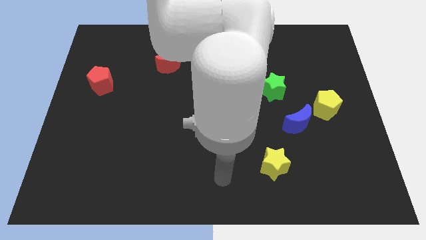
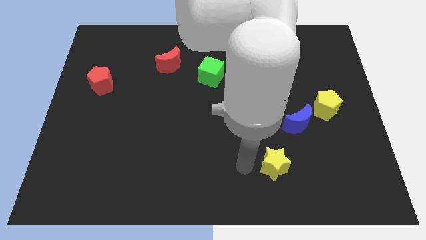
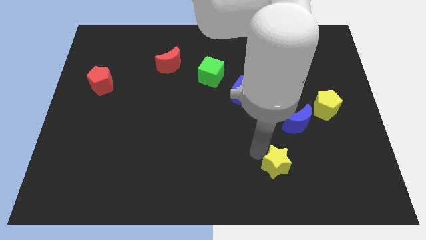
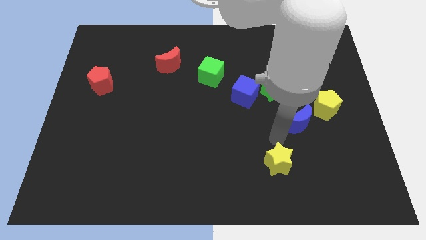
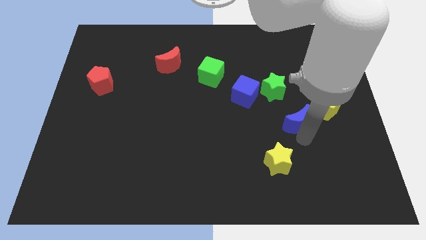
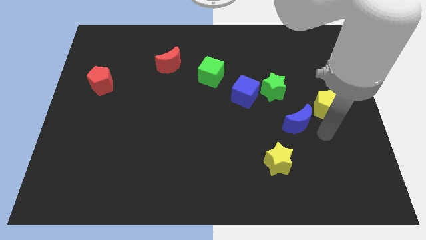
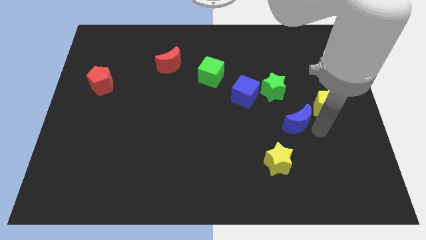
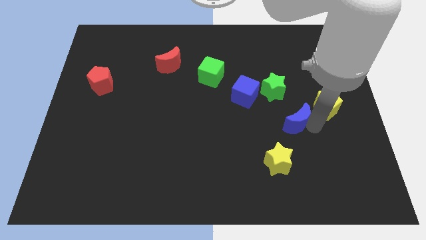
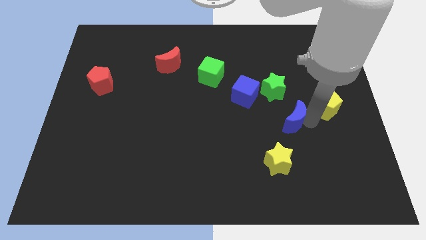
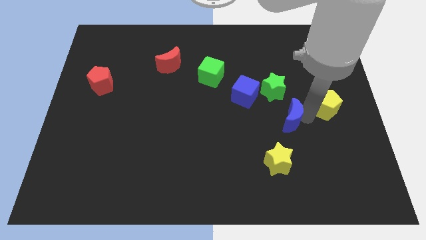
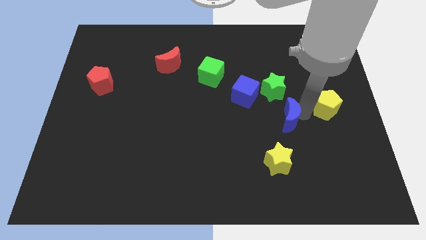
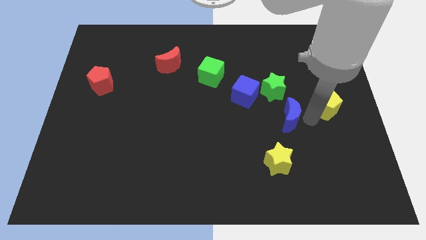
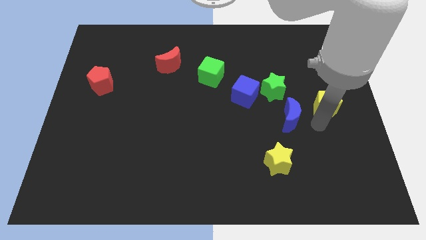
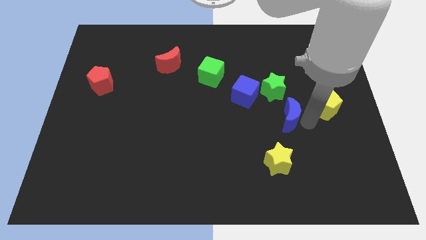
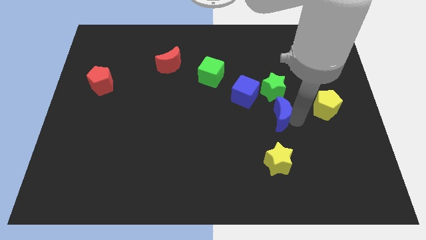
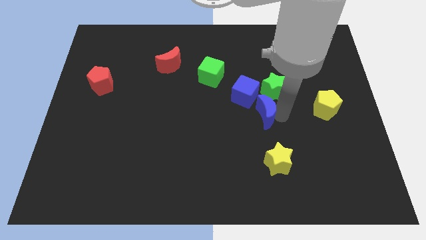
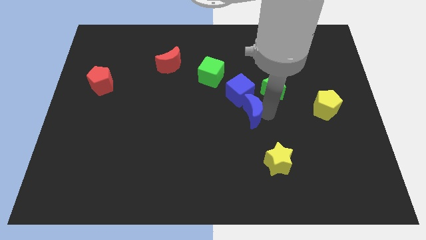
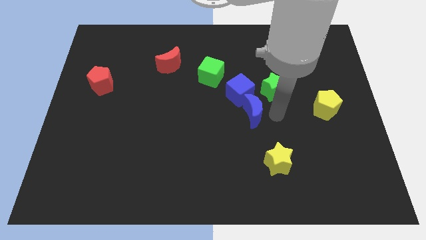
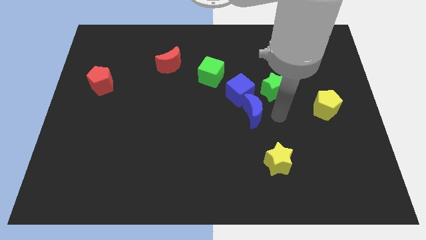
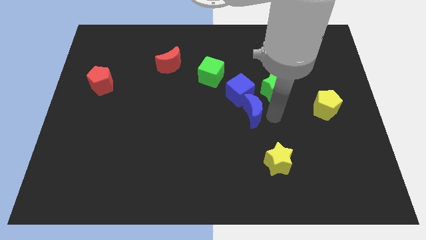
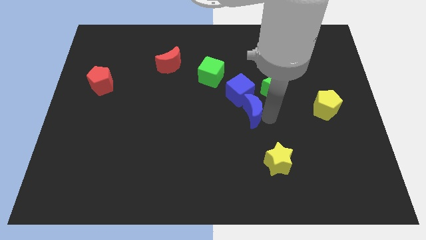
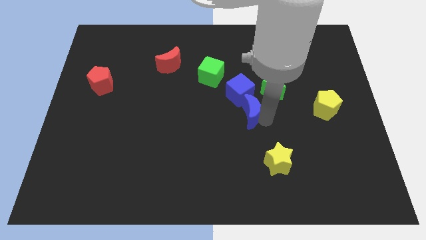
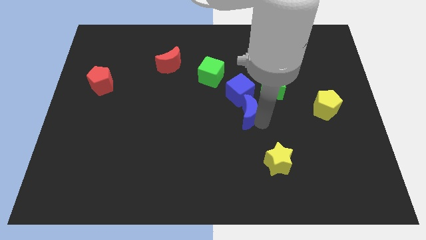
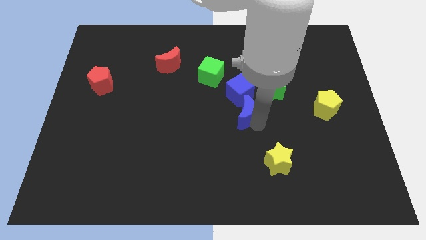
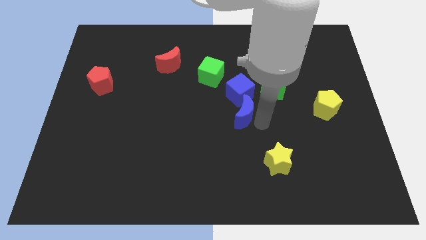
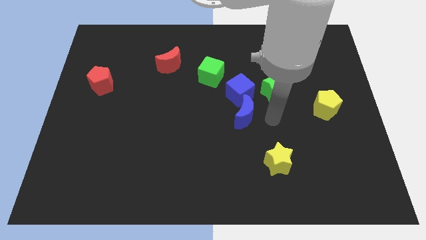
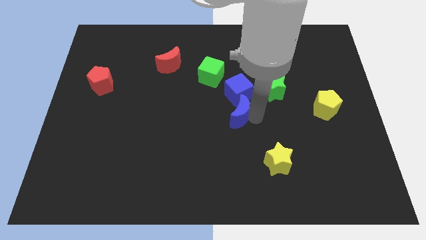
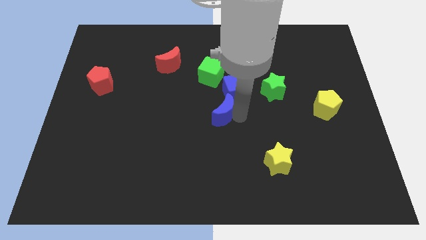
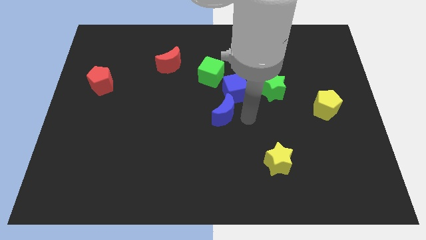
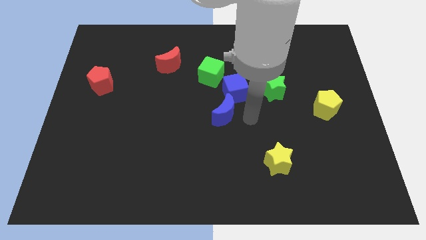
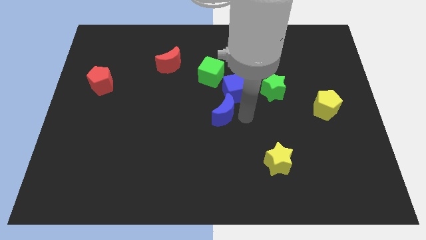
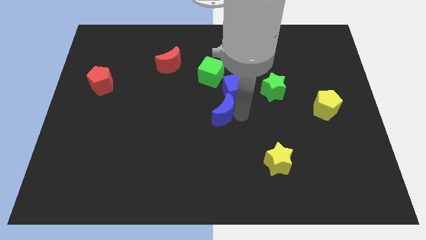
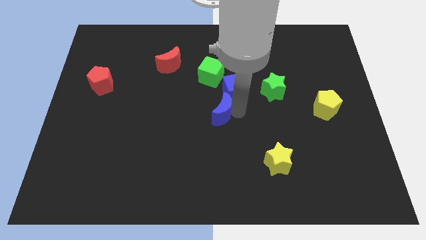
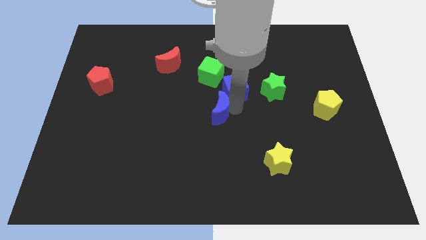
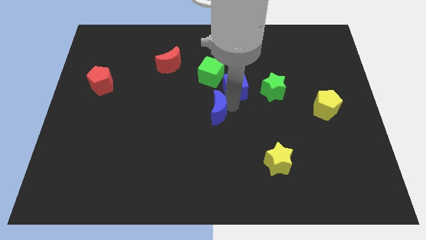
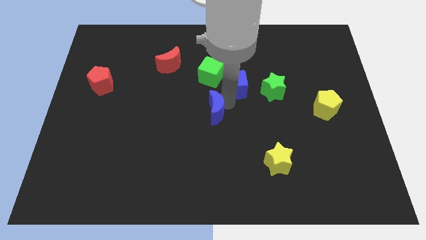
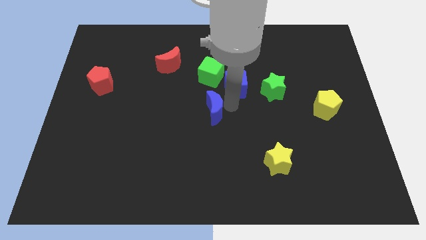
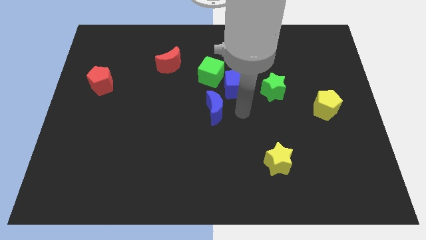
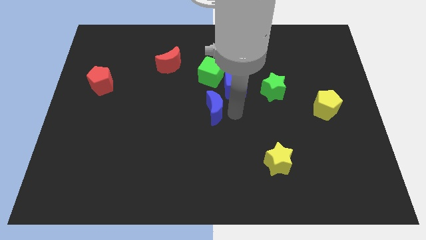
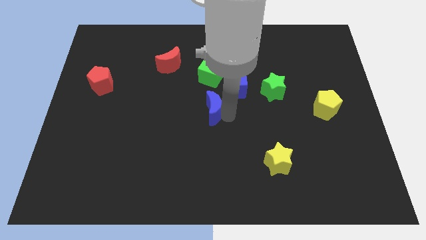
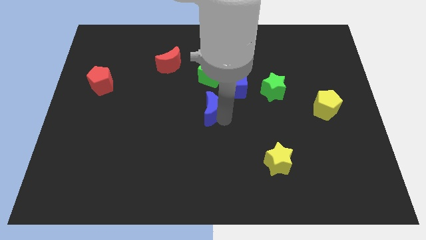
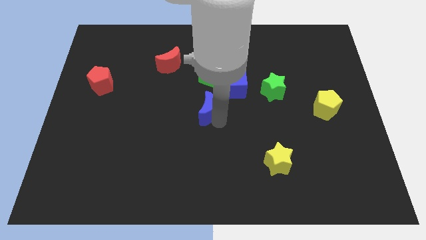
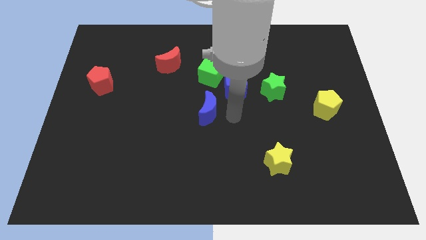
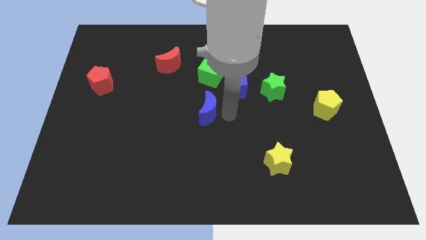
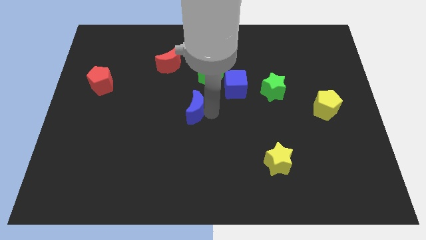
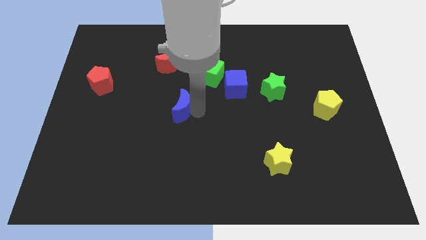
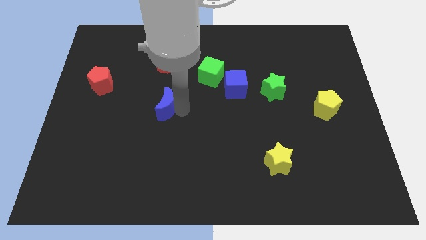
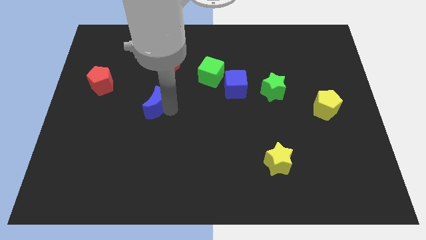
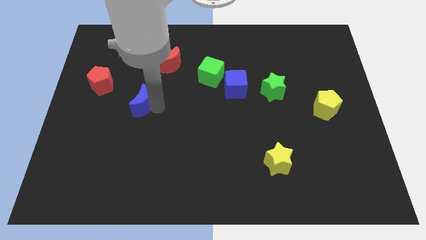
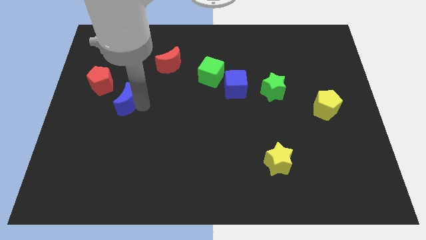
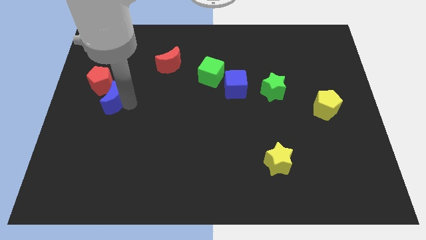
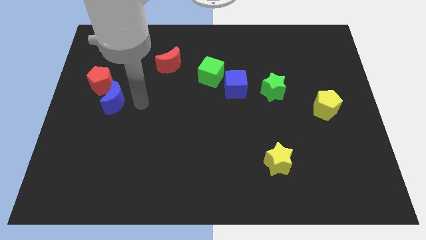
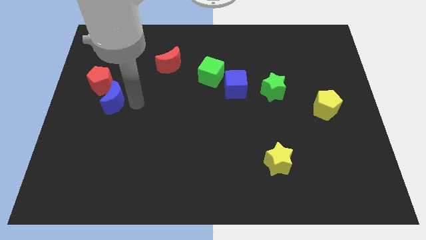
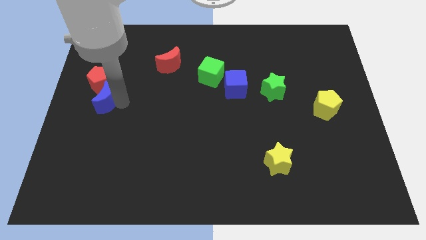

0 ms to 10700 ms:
push the blue moon to the left side of the board

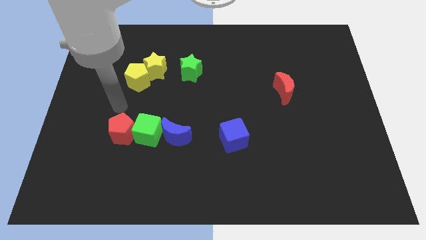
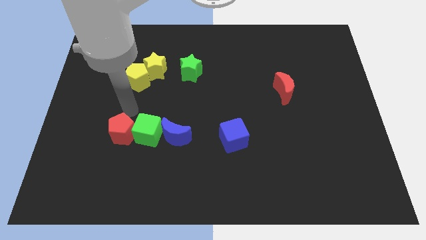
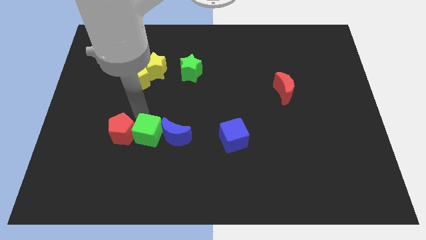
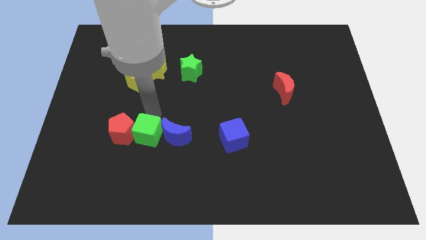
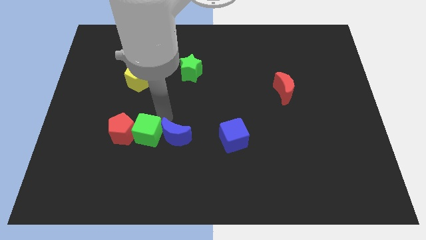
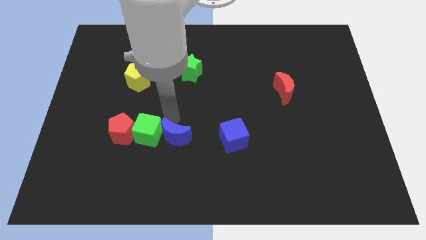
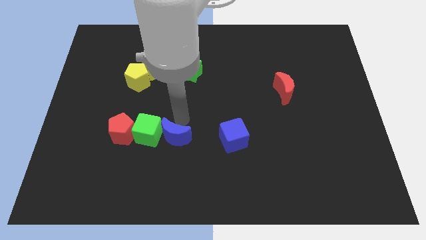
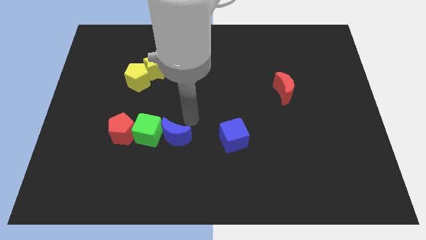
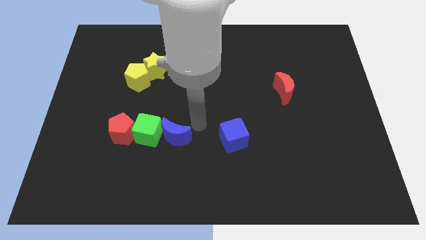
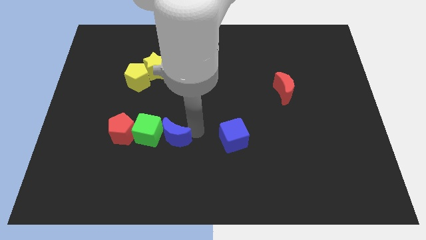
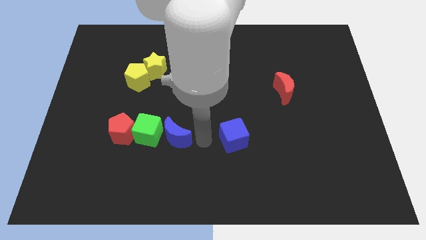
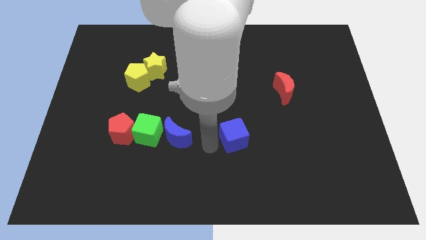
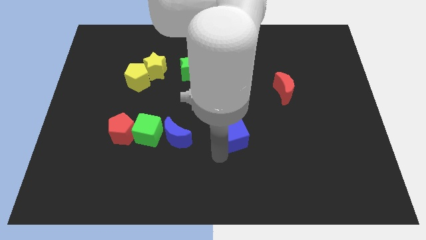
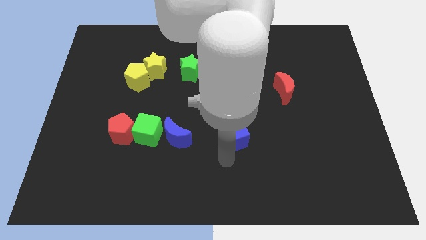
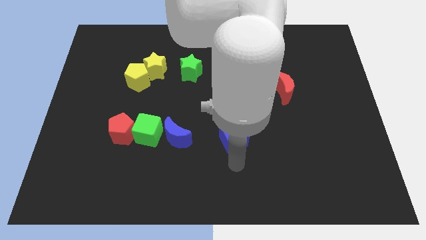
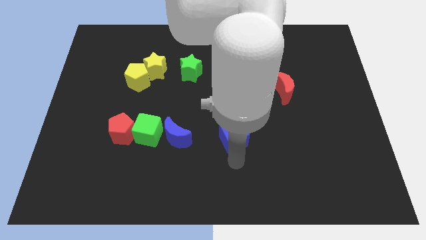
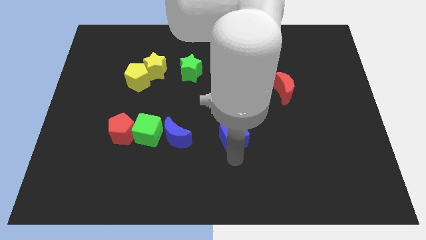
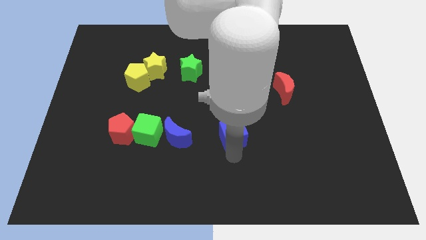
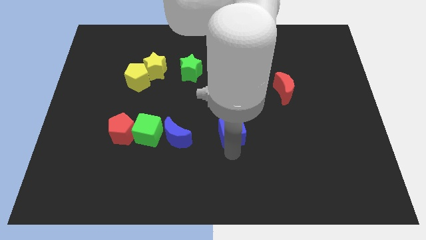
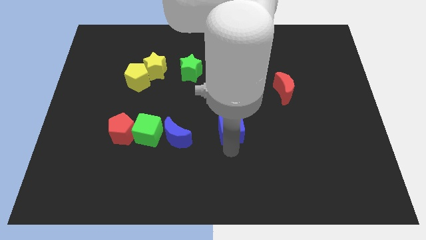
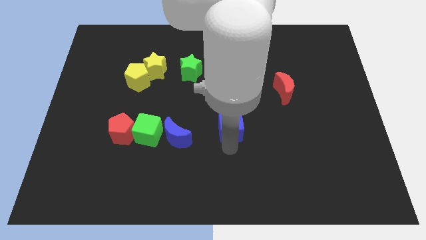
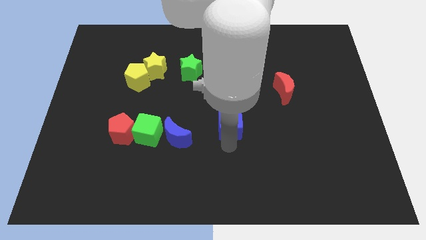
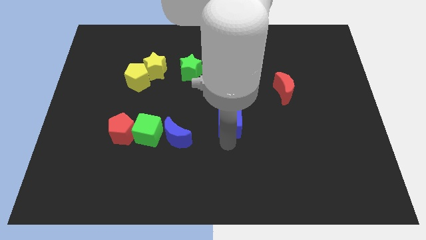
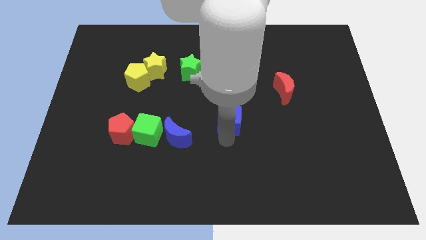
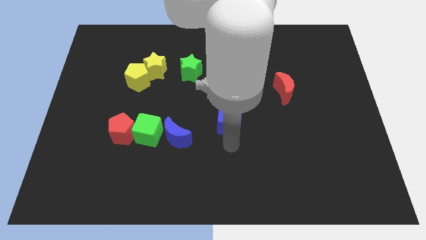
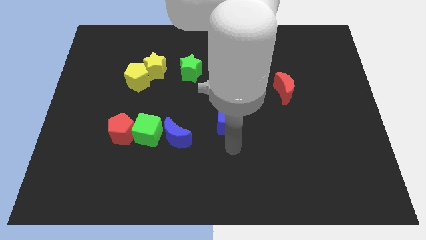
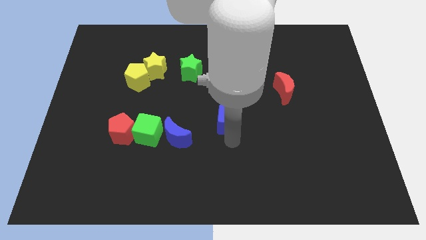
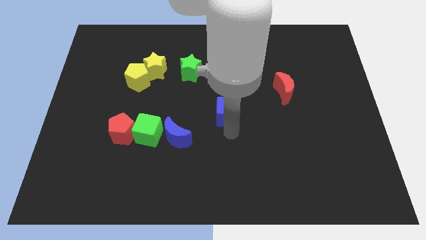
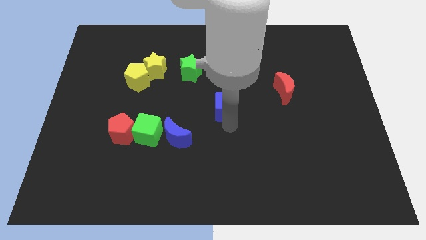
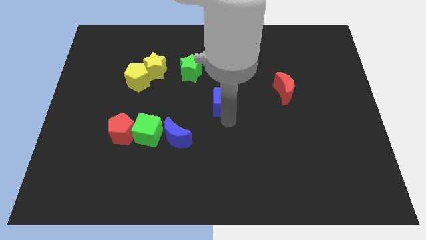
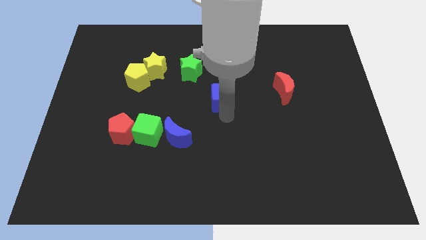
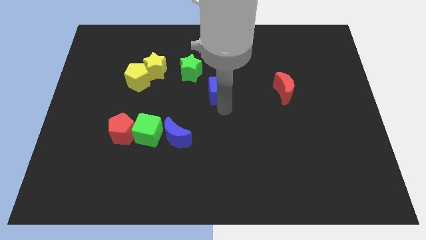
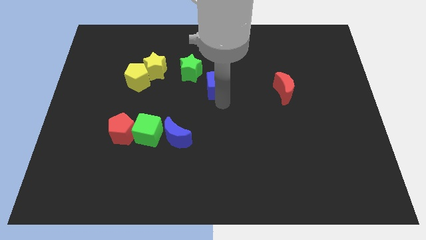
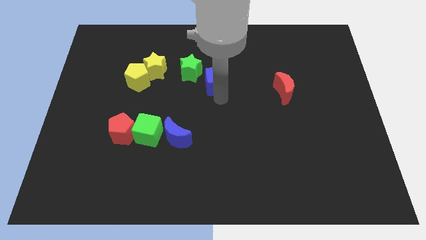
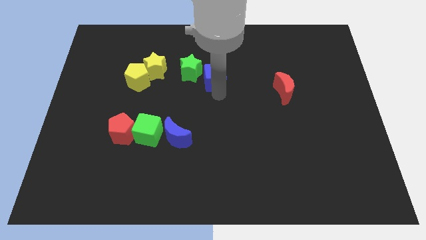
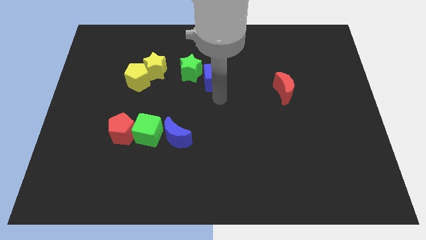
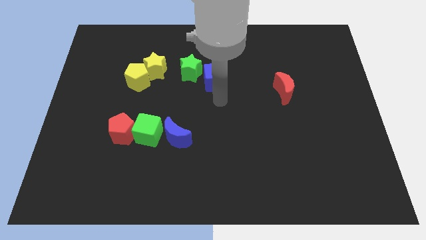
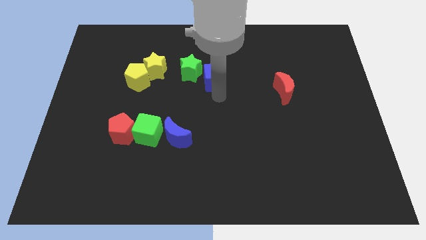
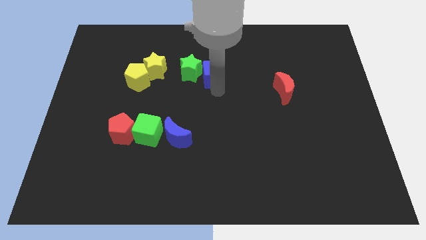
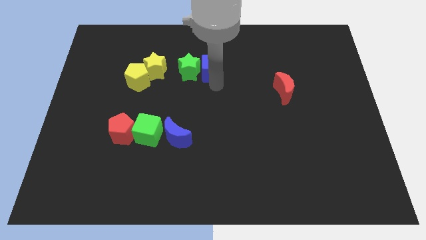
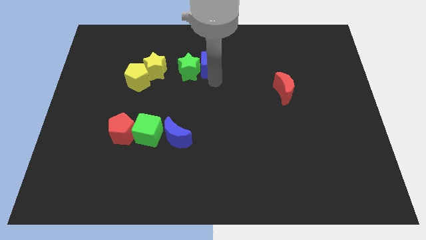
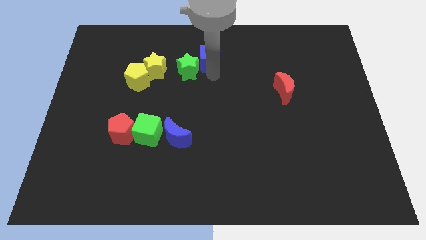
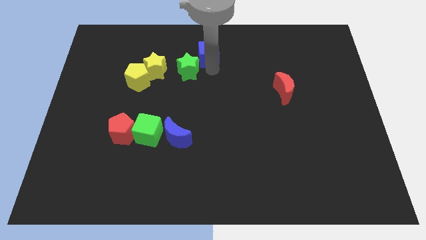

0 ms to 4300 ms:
move the blue cube to the towards your base
